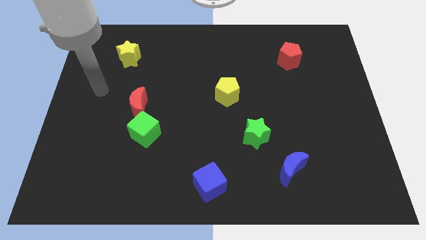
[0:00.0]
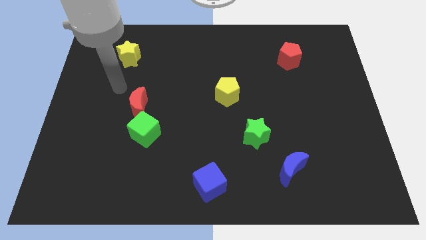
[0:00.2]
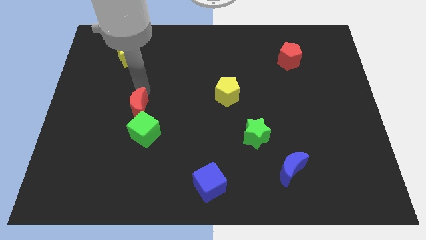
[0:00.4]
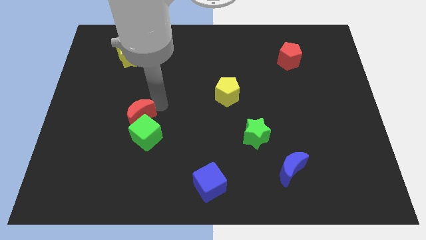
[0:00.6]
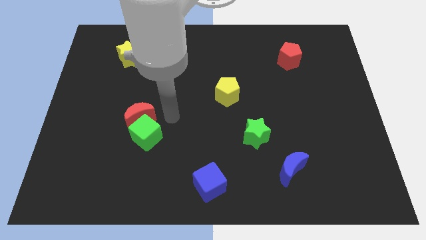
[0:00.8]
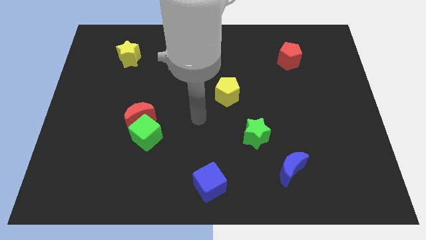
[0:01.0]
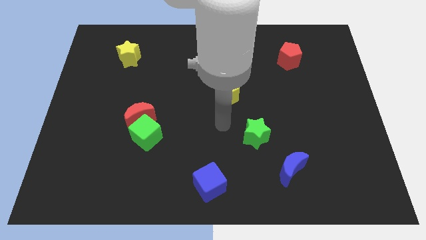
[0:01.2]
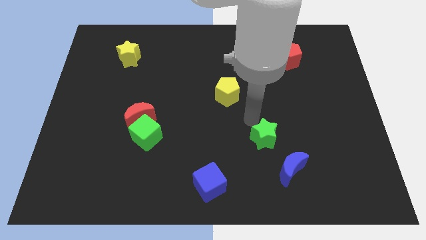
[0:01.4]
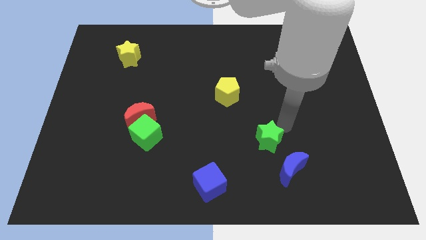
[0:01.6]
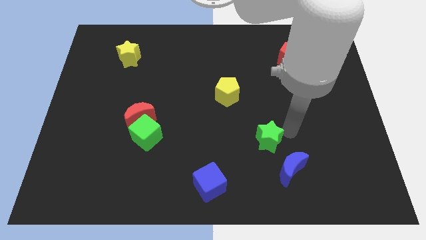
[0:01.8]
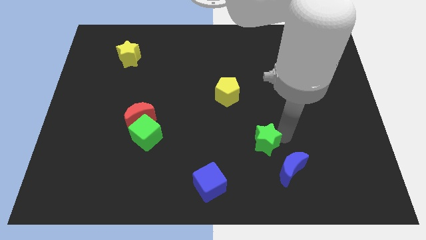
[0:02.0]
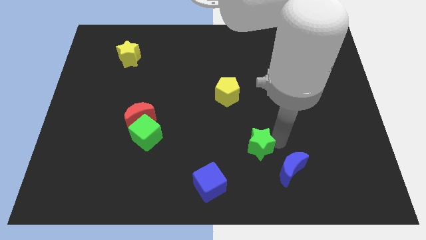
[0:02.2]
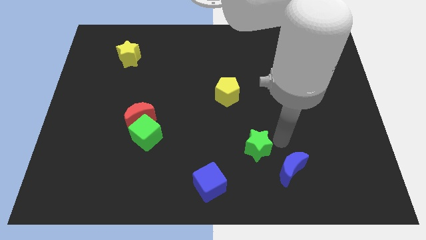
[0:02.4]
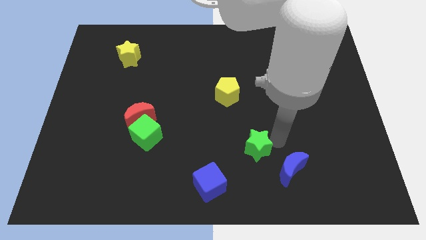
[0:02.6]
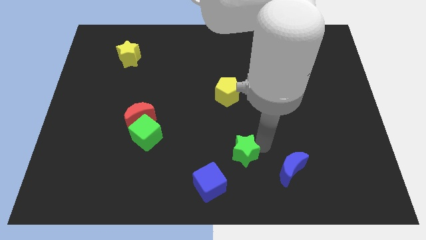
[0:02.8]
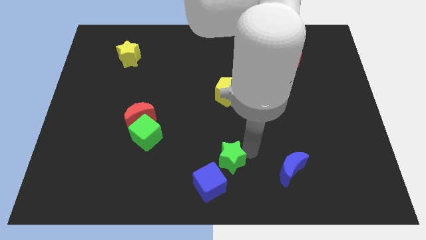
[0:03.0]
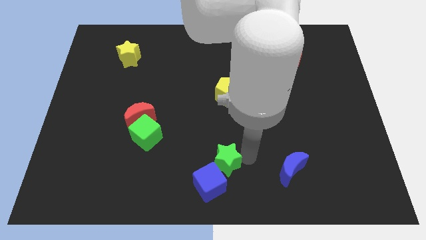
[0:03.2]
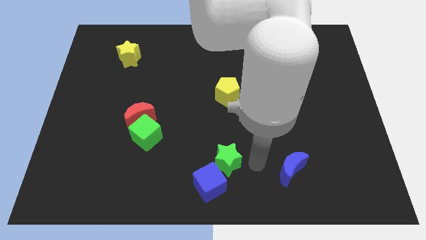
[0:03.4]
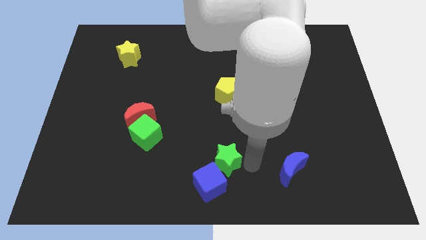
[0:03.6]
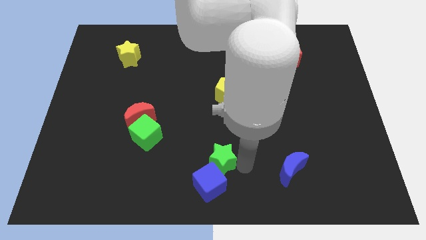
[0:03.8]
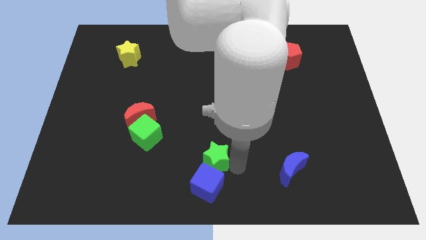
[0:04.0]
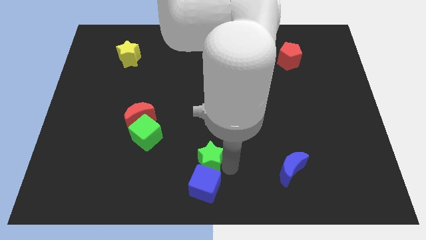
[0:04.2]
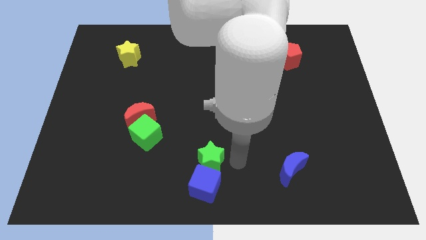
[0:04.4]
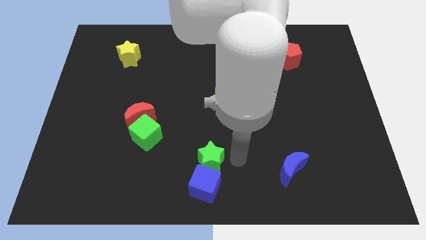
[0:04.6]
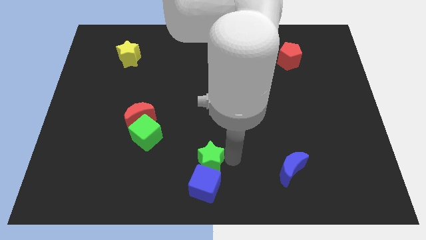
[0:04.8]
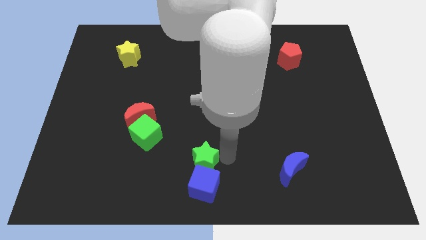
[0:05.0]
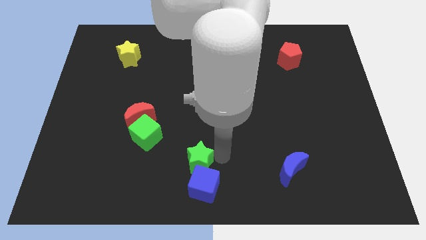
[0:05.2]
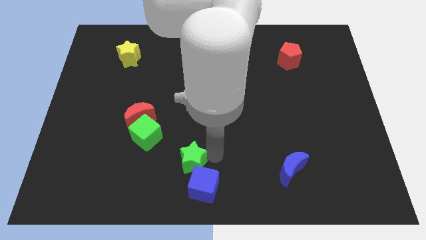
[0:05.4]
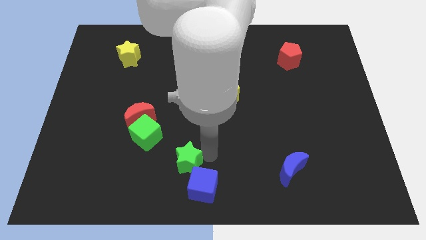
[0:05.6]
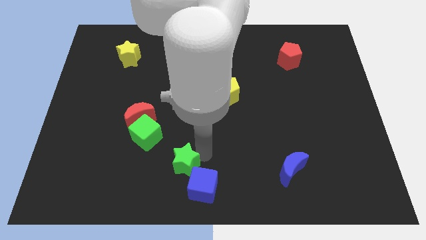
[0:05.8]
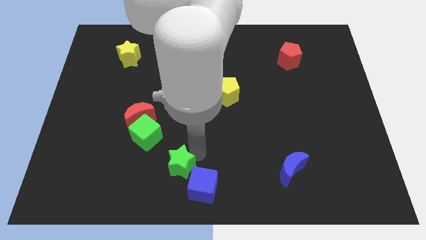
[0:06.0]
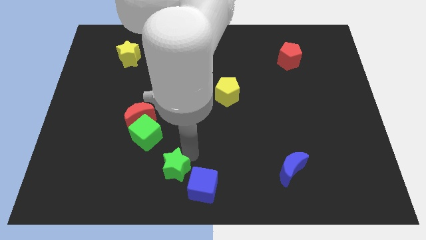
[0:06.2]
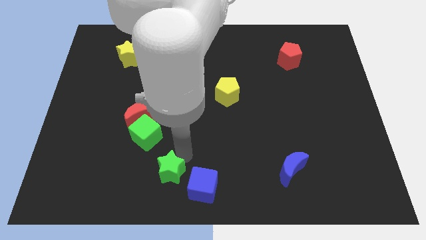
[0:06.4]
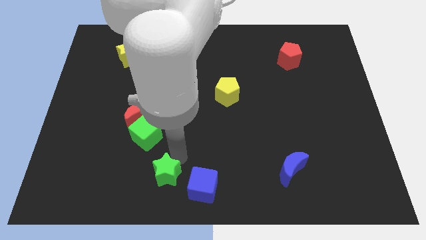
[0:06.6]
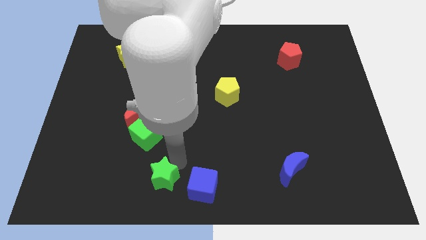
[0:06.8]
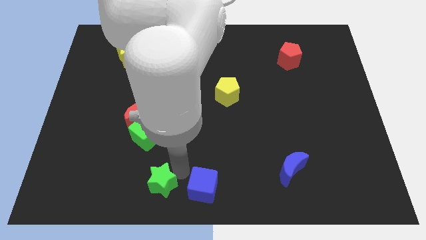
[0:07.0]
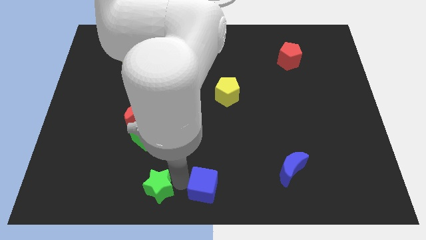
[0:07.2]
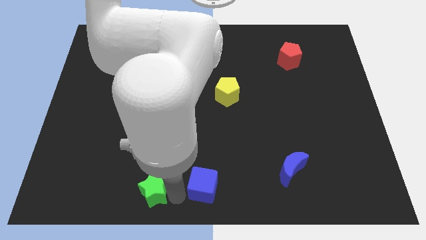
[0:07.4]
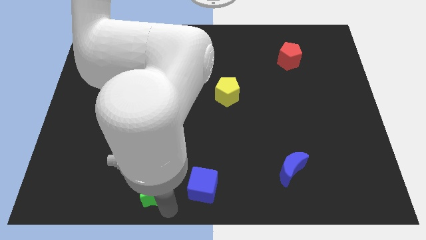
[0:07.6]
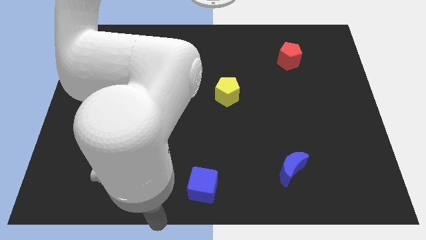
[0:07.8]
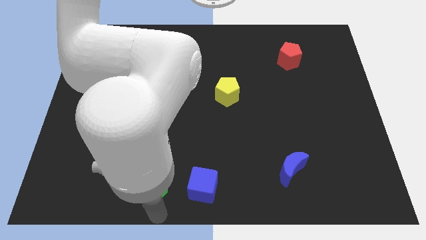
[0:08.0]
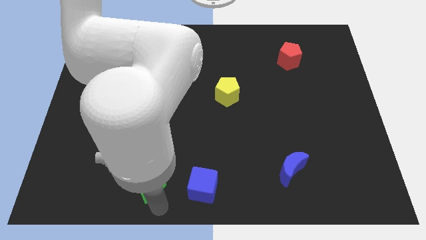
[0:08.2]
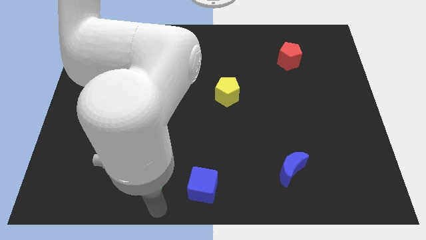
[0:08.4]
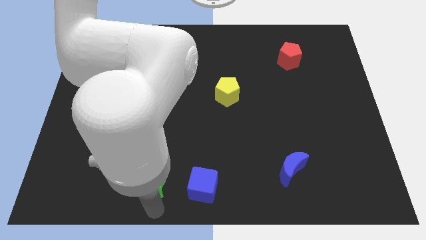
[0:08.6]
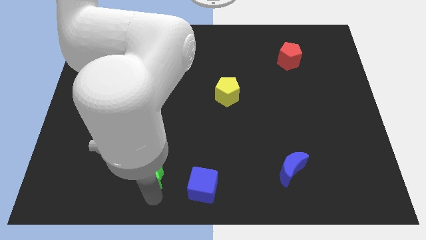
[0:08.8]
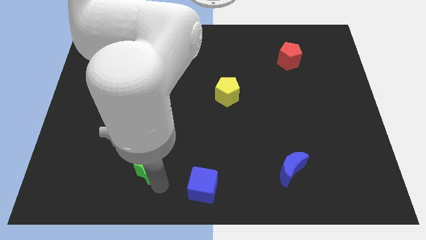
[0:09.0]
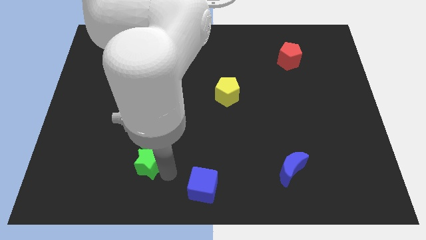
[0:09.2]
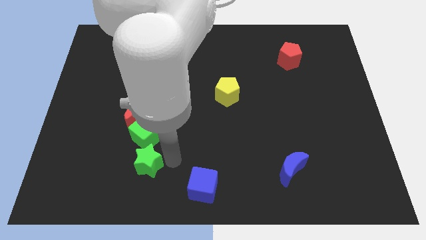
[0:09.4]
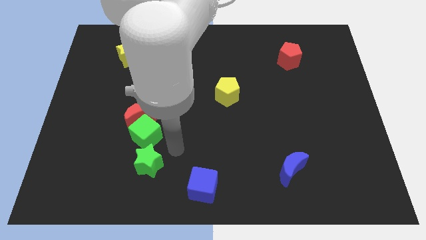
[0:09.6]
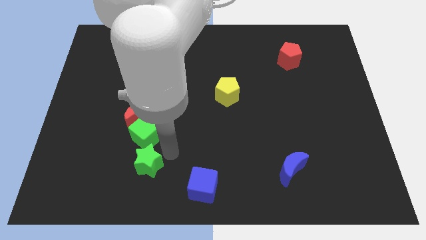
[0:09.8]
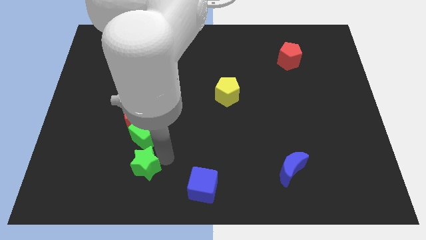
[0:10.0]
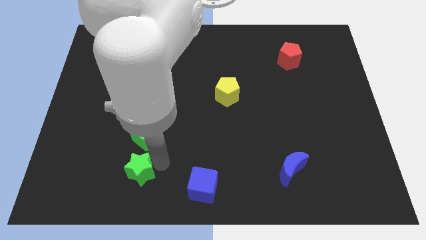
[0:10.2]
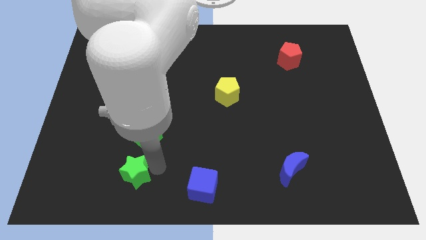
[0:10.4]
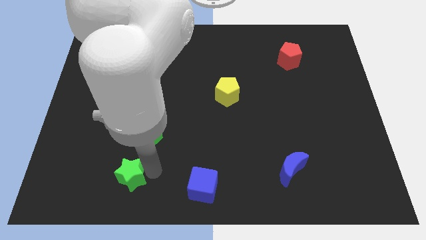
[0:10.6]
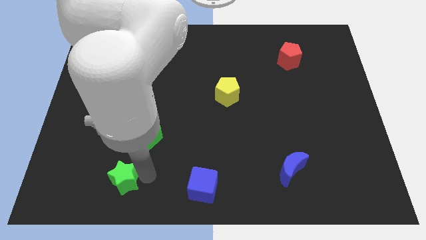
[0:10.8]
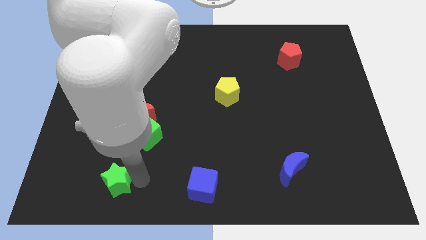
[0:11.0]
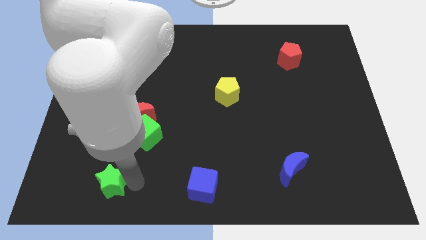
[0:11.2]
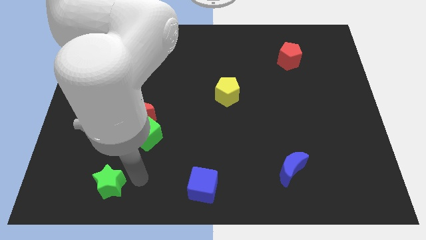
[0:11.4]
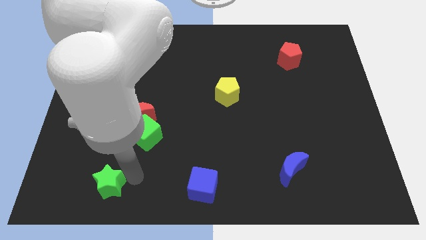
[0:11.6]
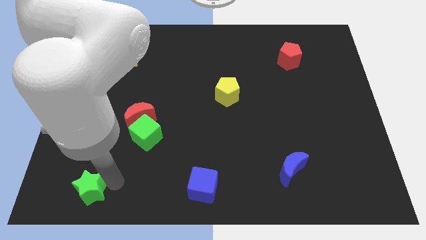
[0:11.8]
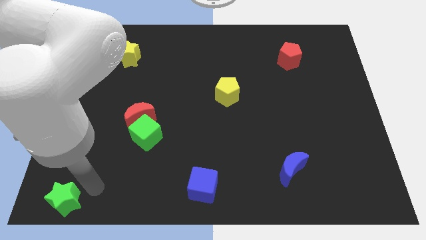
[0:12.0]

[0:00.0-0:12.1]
put the green star to the bottom left
